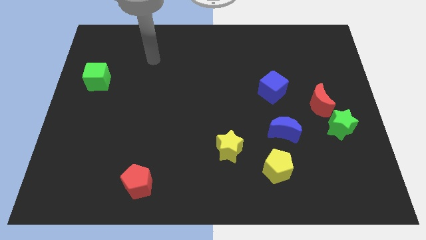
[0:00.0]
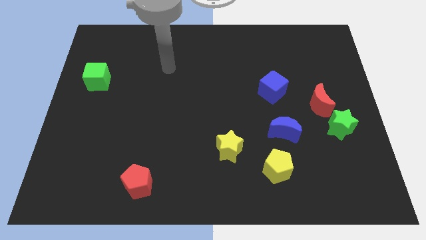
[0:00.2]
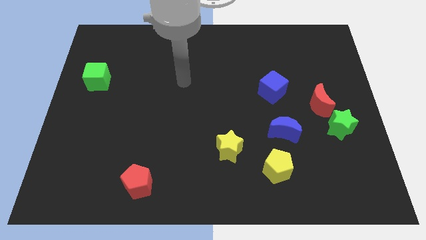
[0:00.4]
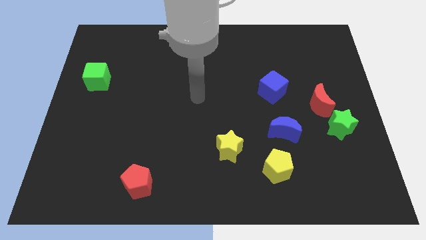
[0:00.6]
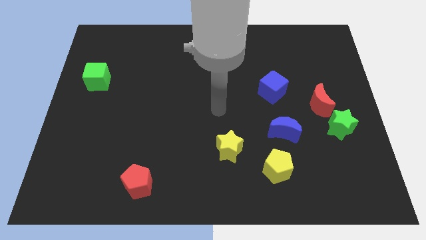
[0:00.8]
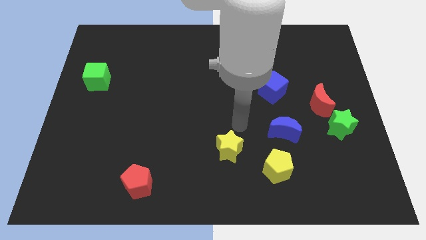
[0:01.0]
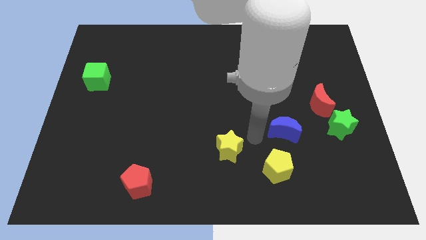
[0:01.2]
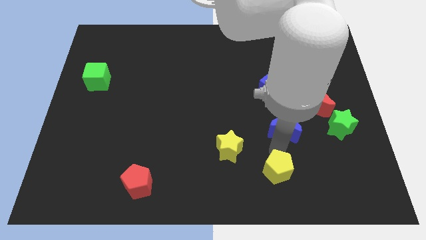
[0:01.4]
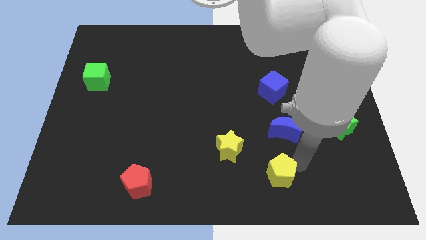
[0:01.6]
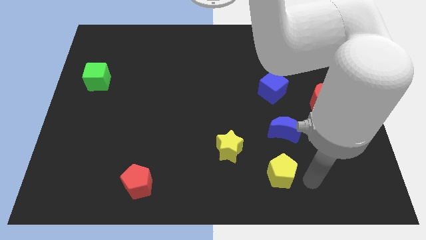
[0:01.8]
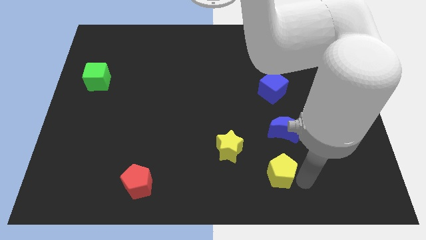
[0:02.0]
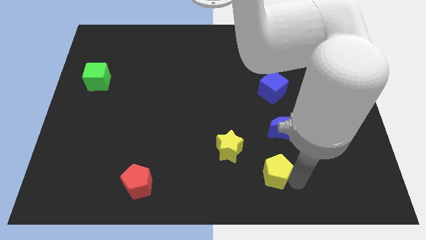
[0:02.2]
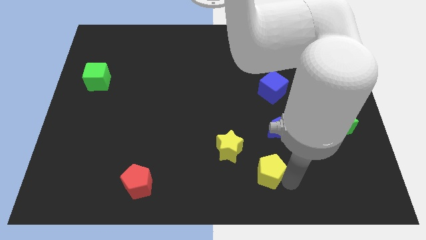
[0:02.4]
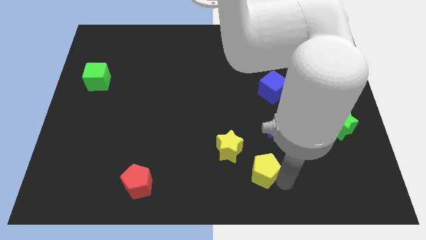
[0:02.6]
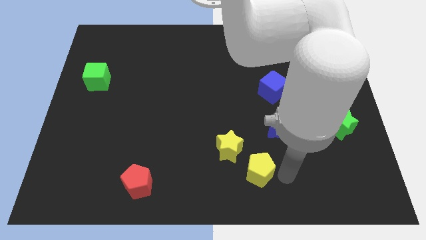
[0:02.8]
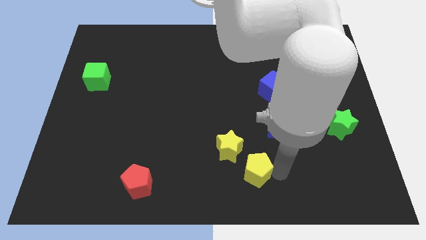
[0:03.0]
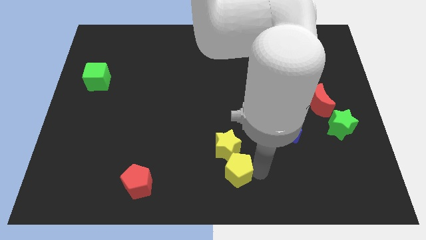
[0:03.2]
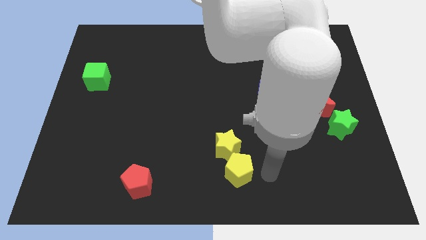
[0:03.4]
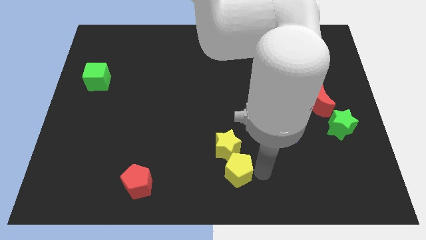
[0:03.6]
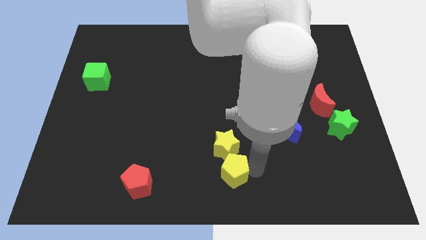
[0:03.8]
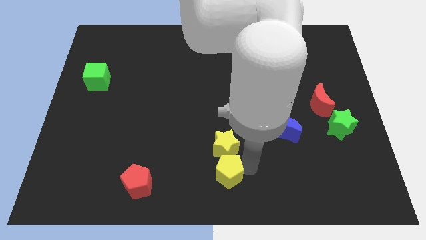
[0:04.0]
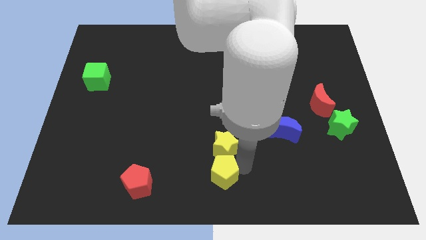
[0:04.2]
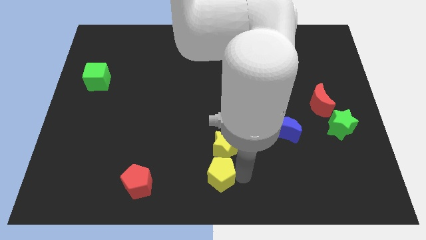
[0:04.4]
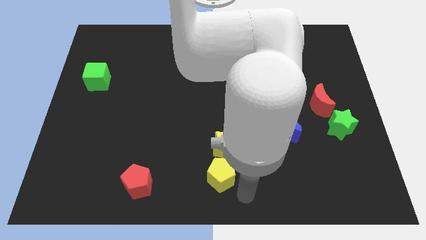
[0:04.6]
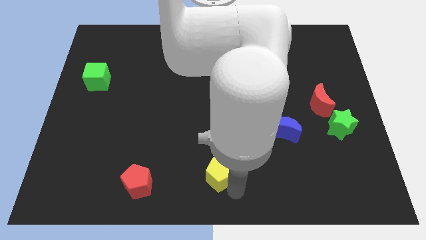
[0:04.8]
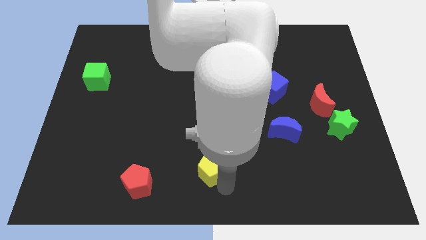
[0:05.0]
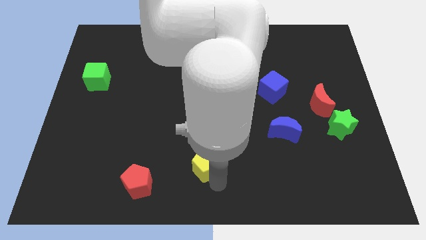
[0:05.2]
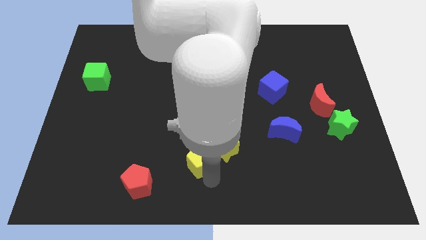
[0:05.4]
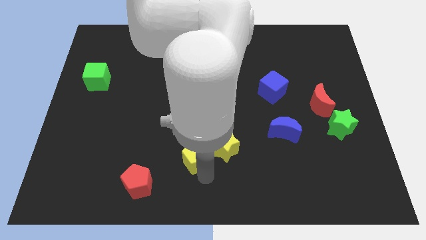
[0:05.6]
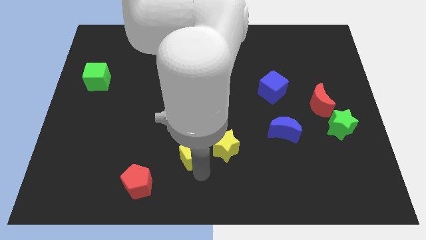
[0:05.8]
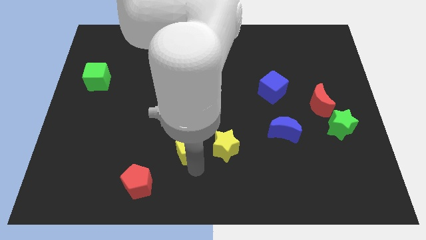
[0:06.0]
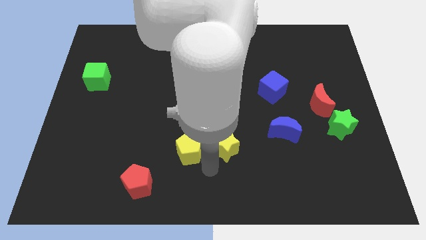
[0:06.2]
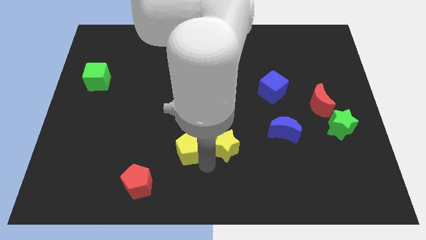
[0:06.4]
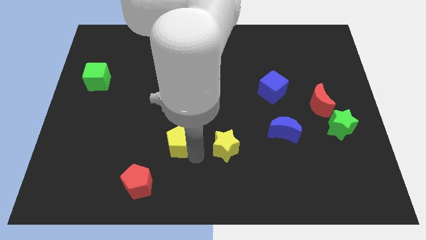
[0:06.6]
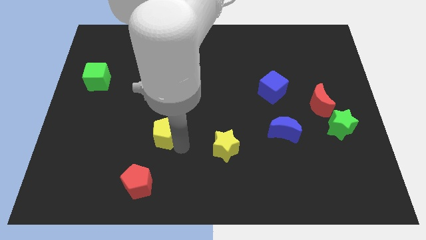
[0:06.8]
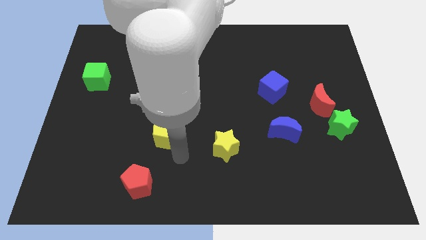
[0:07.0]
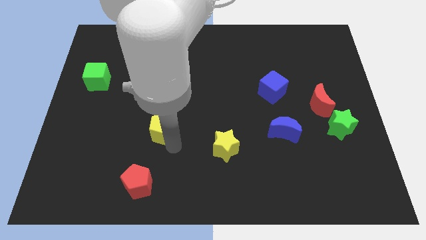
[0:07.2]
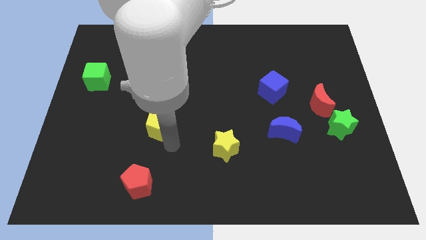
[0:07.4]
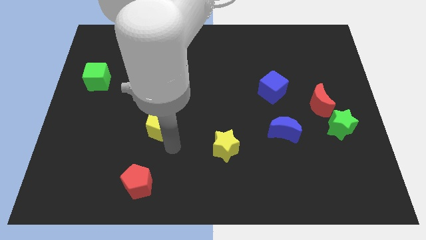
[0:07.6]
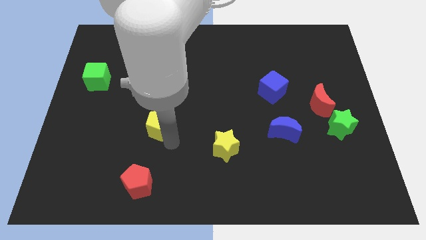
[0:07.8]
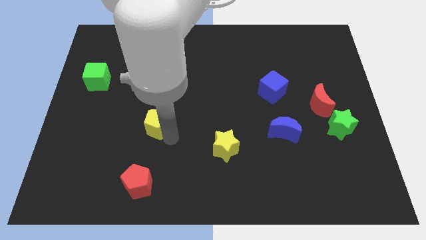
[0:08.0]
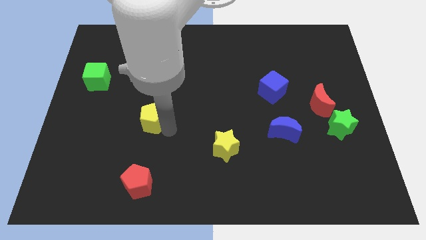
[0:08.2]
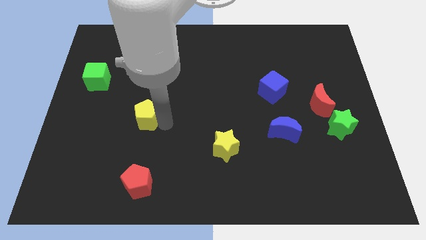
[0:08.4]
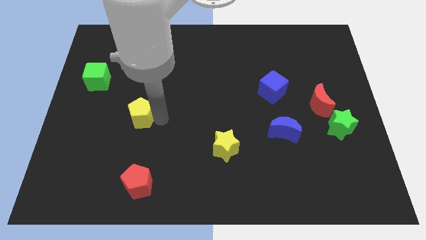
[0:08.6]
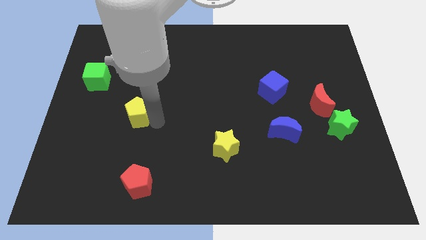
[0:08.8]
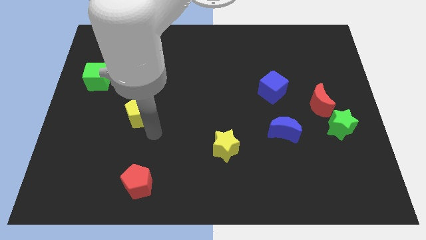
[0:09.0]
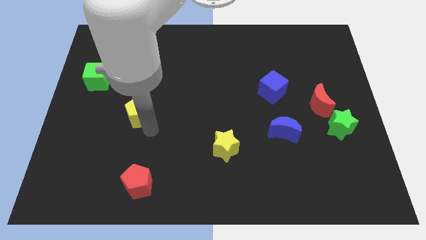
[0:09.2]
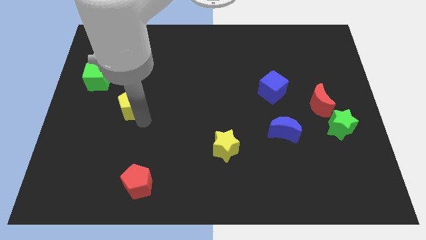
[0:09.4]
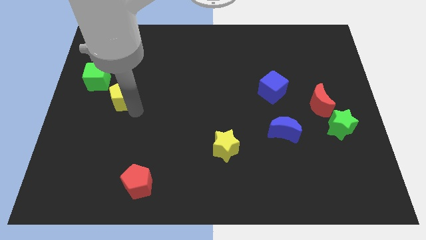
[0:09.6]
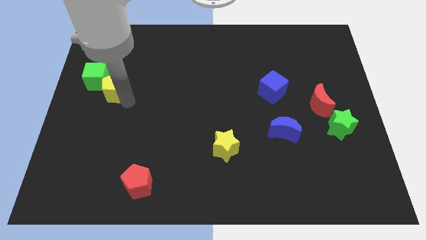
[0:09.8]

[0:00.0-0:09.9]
push the yellow pentagon close to the green cube

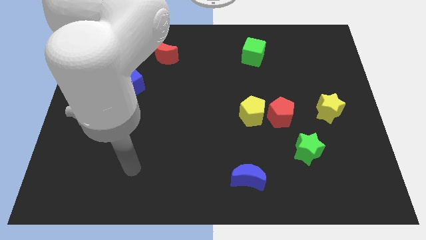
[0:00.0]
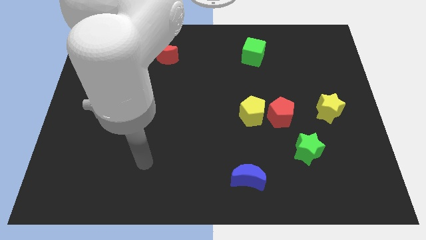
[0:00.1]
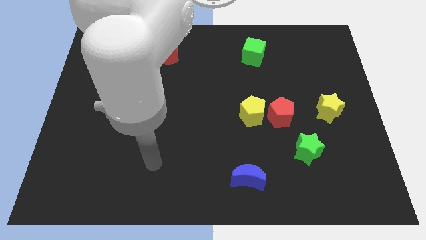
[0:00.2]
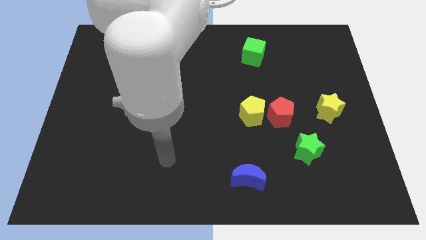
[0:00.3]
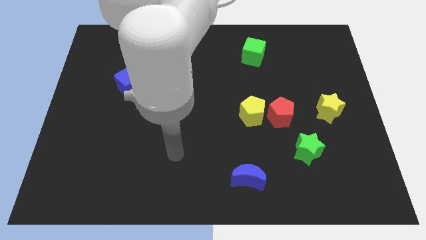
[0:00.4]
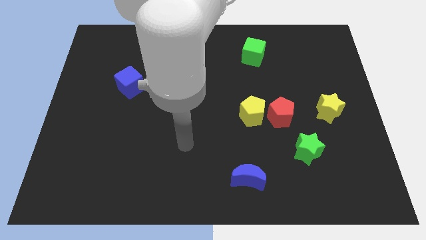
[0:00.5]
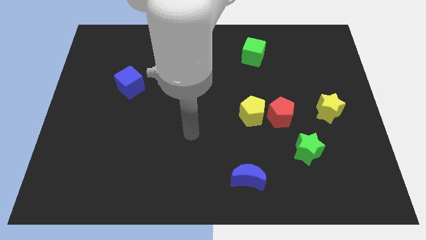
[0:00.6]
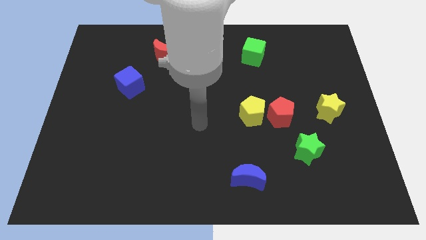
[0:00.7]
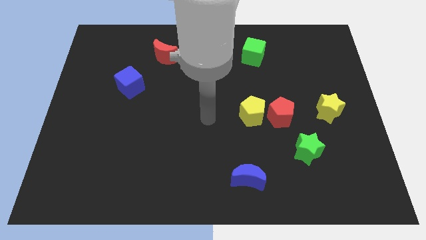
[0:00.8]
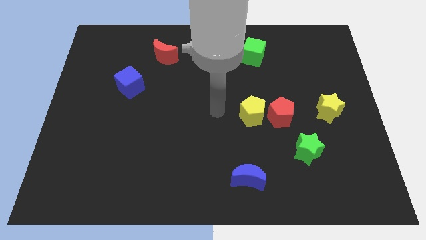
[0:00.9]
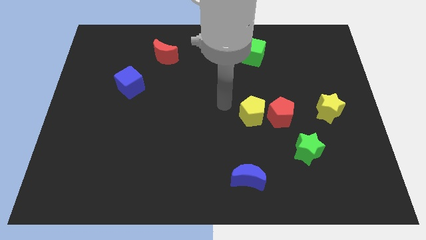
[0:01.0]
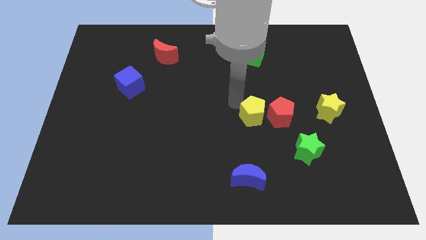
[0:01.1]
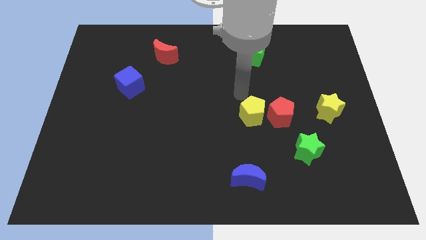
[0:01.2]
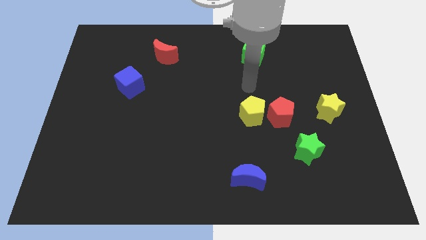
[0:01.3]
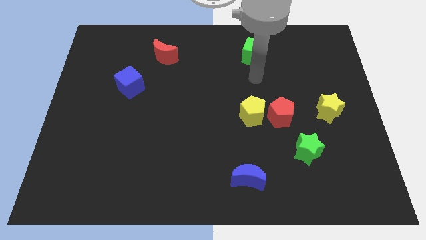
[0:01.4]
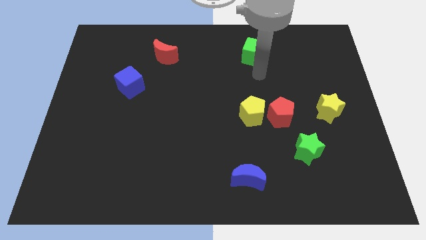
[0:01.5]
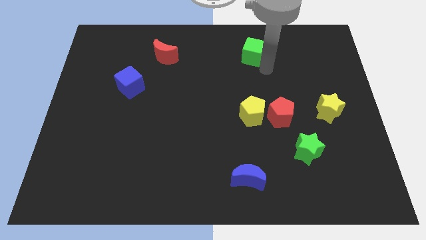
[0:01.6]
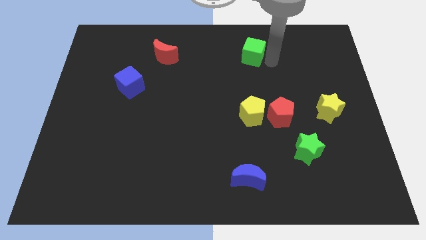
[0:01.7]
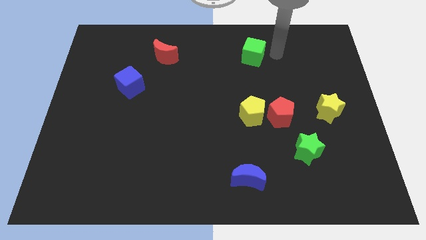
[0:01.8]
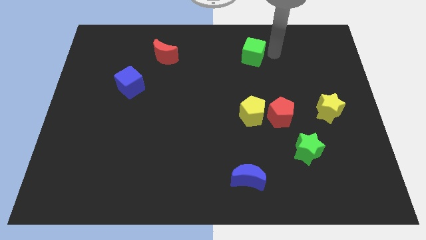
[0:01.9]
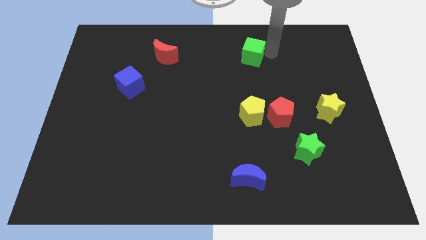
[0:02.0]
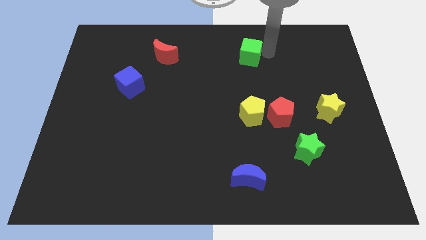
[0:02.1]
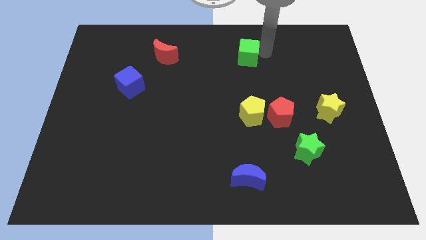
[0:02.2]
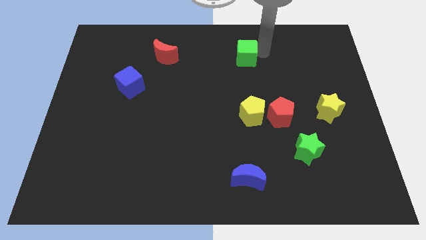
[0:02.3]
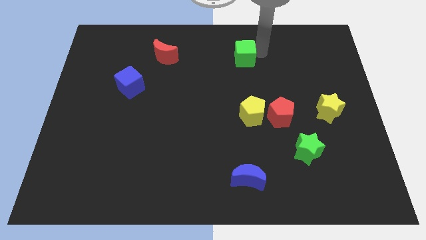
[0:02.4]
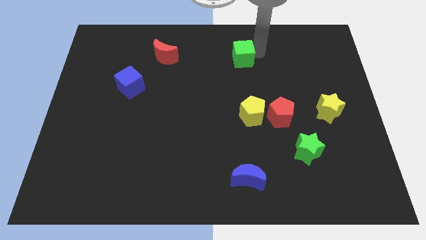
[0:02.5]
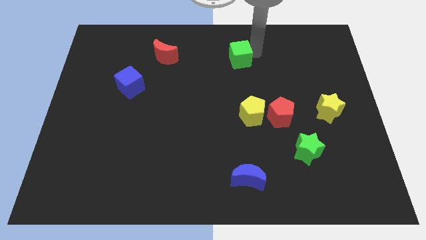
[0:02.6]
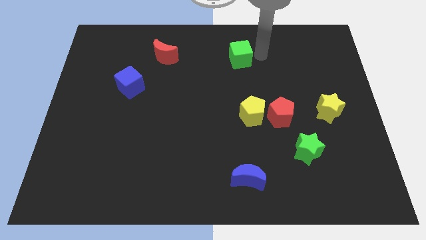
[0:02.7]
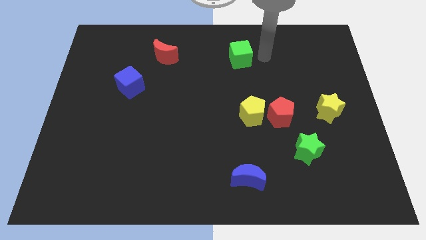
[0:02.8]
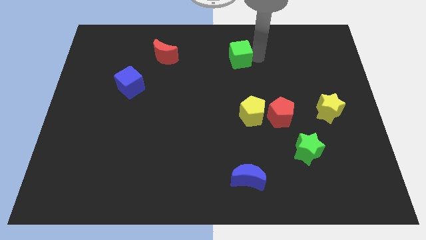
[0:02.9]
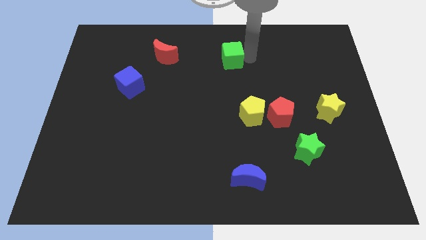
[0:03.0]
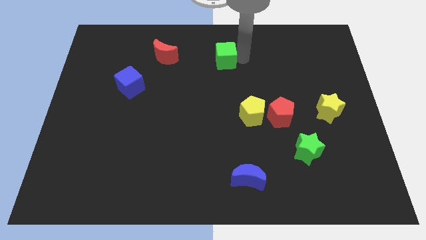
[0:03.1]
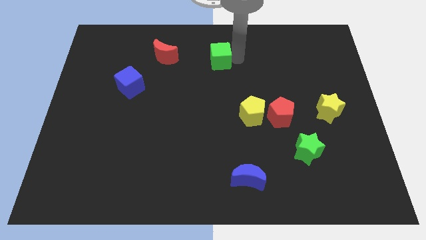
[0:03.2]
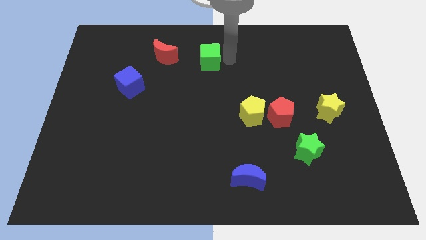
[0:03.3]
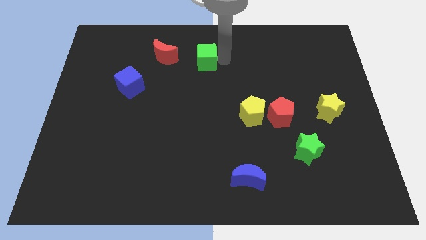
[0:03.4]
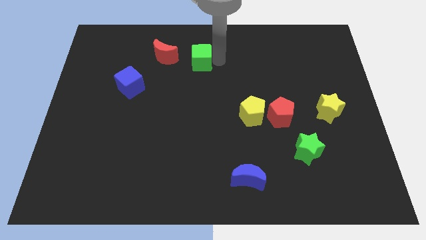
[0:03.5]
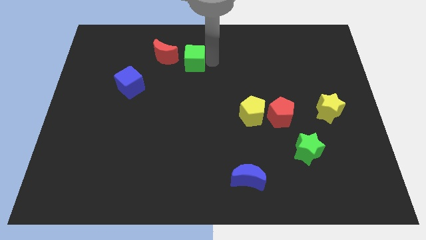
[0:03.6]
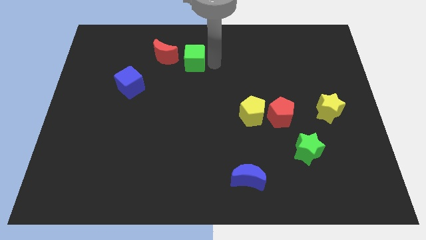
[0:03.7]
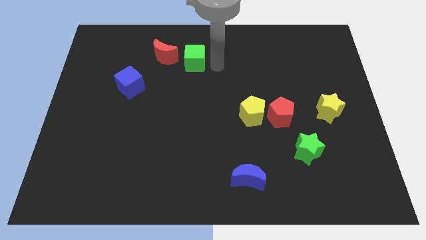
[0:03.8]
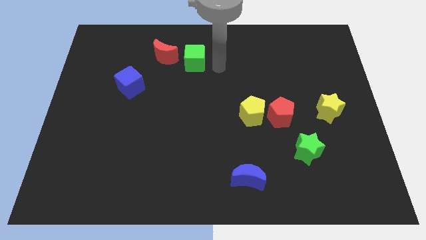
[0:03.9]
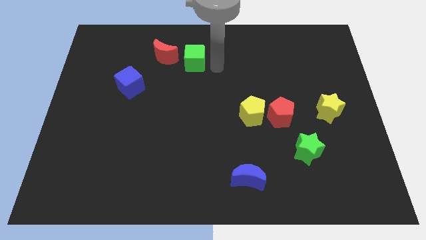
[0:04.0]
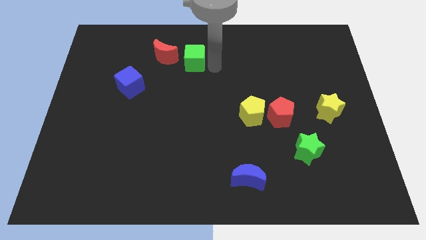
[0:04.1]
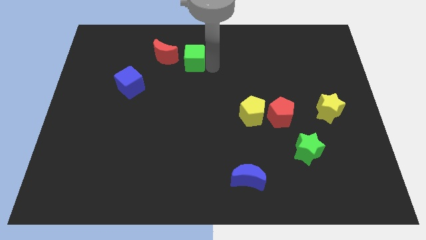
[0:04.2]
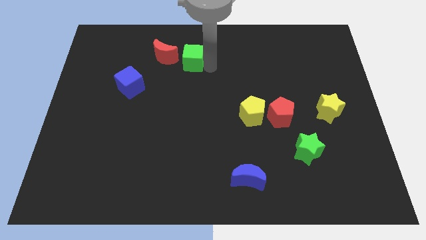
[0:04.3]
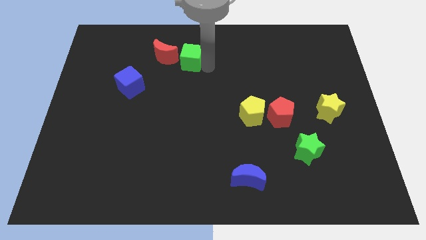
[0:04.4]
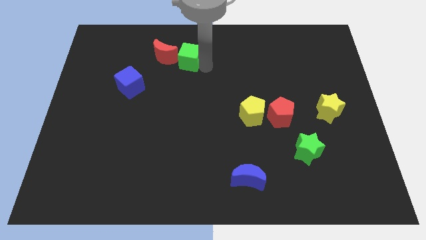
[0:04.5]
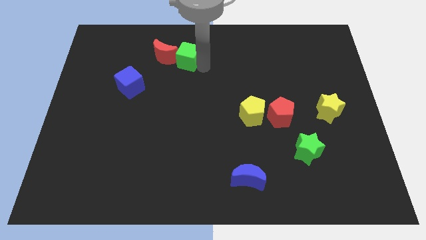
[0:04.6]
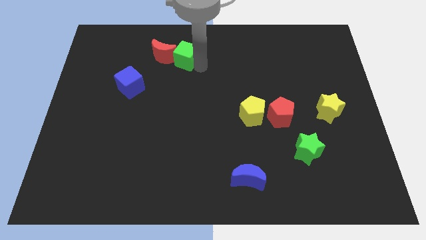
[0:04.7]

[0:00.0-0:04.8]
put the green cube next to the red moon
